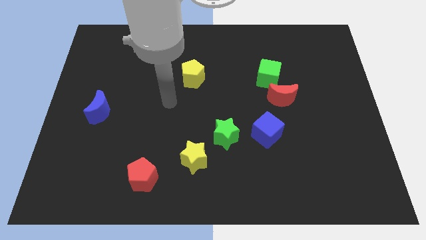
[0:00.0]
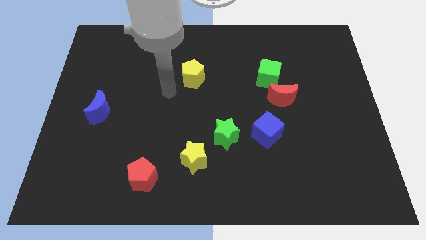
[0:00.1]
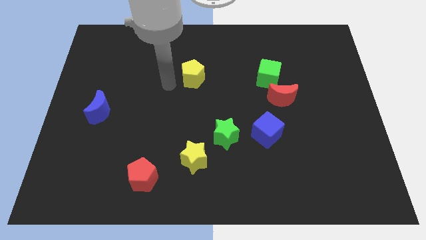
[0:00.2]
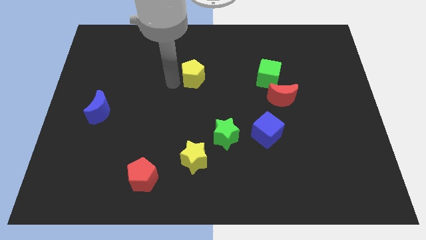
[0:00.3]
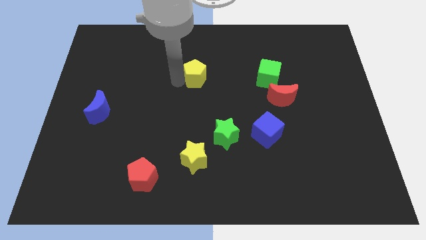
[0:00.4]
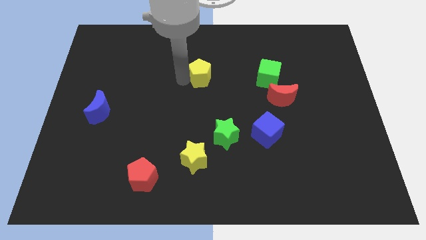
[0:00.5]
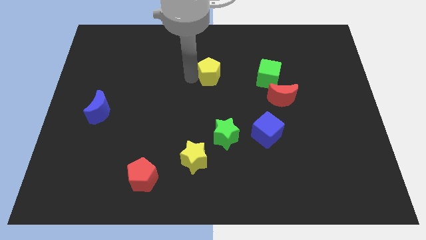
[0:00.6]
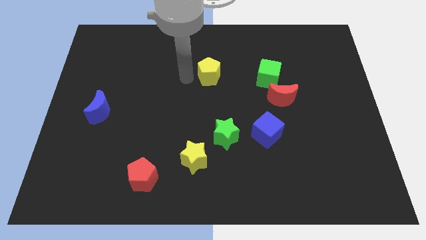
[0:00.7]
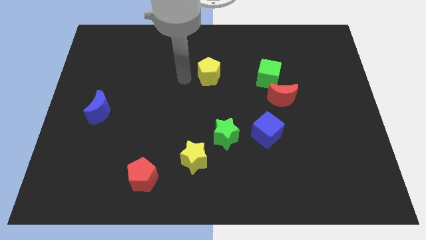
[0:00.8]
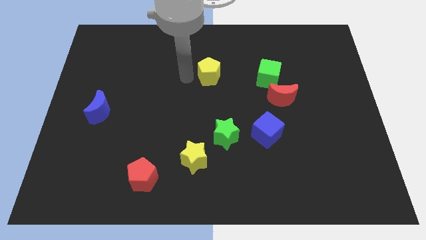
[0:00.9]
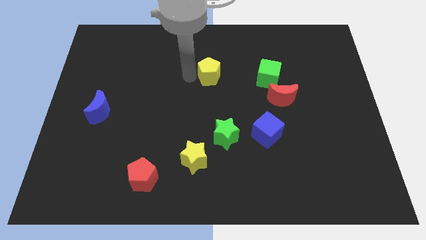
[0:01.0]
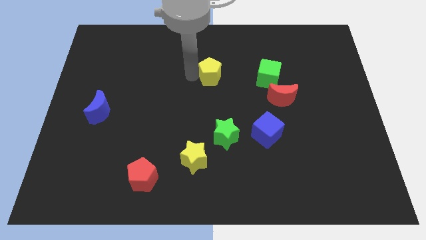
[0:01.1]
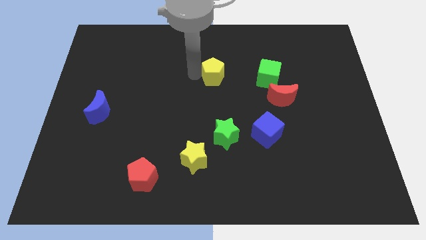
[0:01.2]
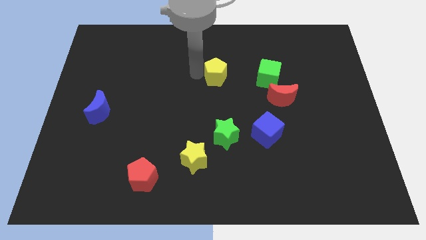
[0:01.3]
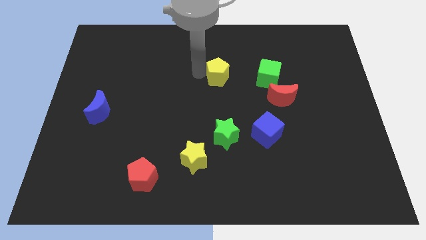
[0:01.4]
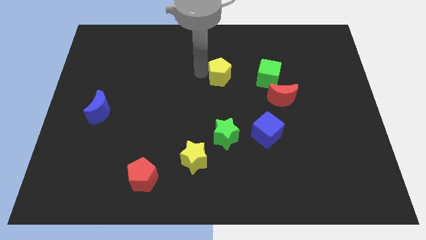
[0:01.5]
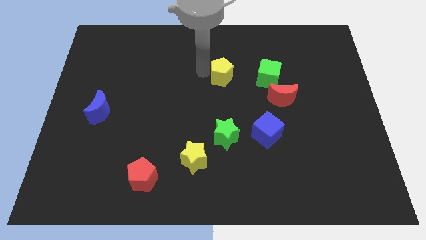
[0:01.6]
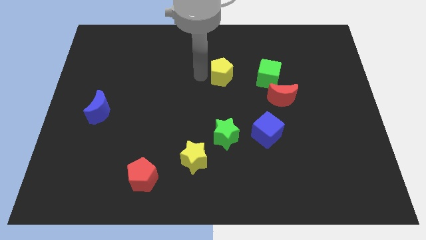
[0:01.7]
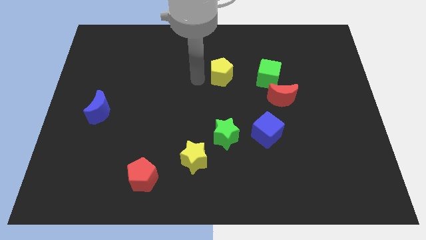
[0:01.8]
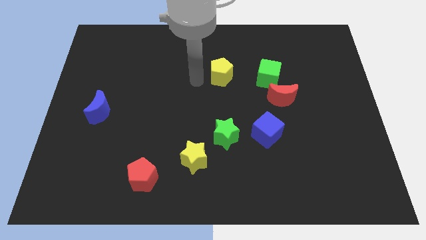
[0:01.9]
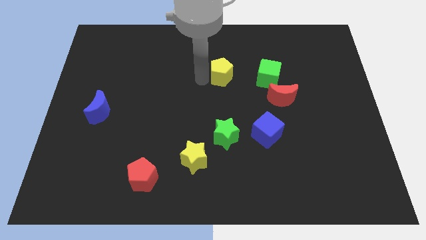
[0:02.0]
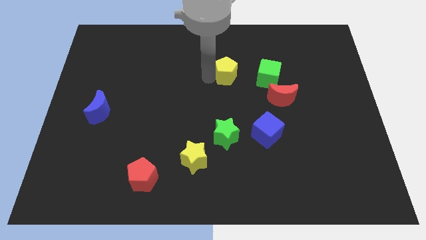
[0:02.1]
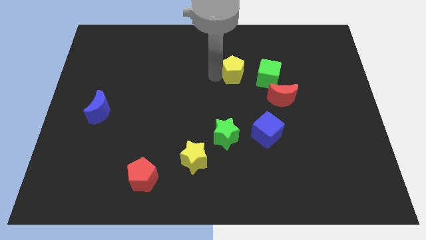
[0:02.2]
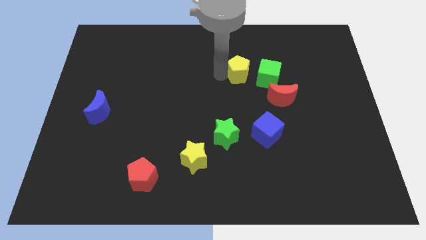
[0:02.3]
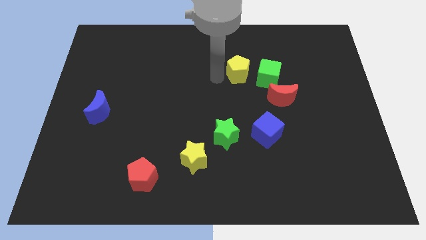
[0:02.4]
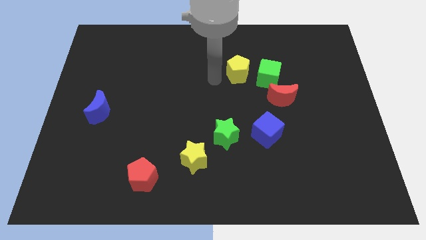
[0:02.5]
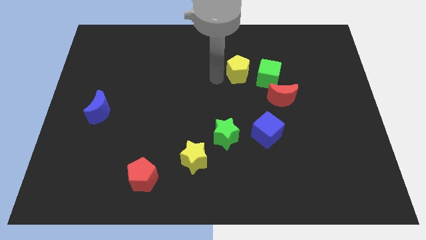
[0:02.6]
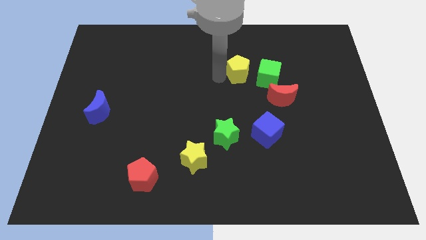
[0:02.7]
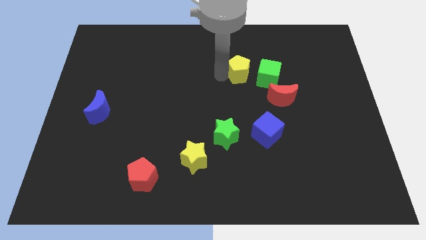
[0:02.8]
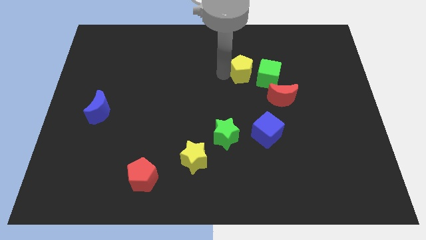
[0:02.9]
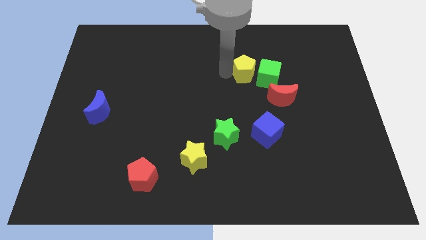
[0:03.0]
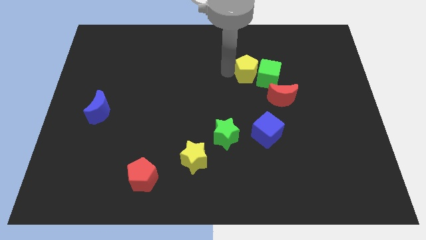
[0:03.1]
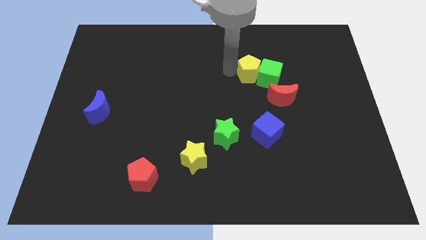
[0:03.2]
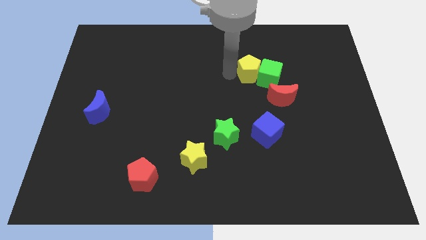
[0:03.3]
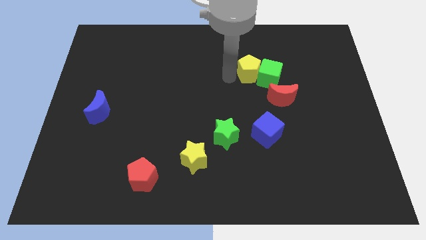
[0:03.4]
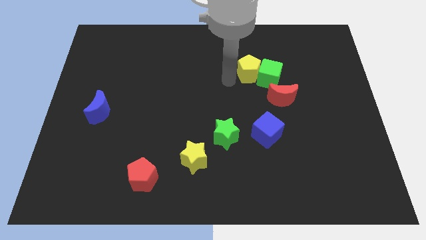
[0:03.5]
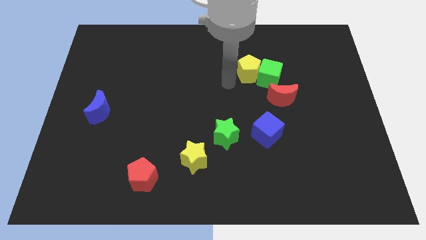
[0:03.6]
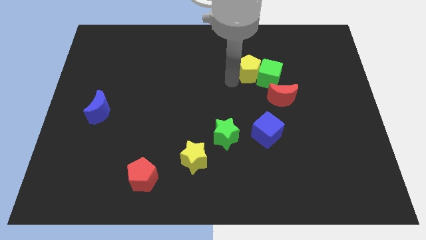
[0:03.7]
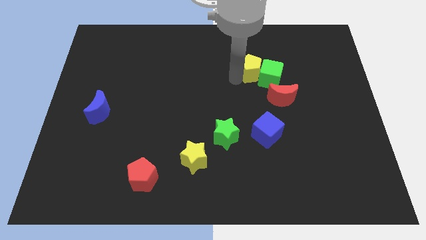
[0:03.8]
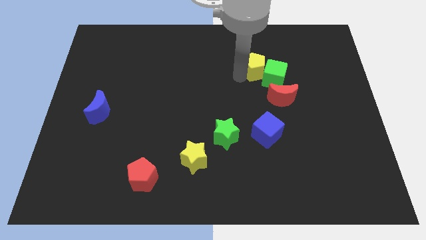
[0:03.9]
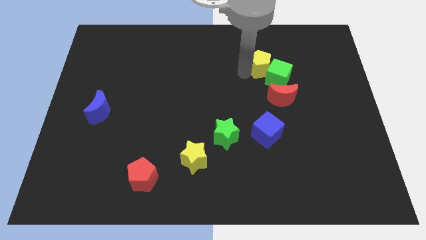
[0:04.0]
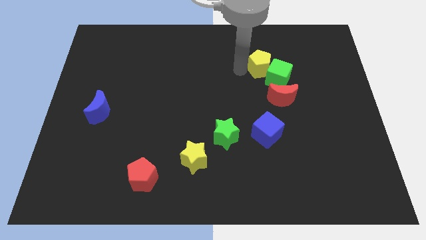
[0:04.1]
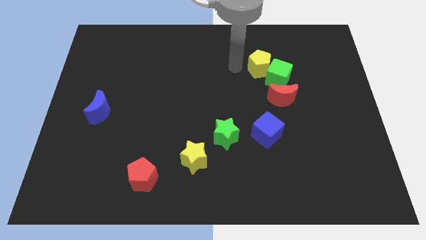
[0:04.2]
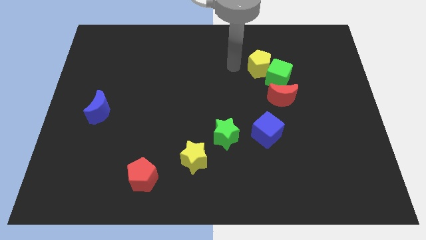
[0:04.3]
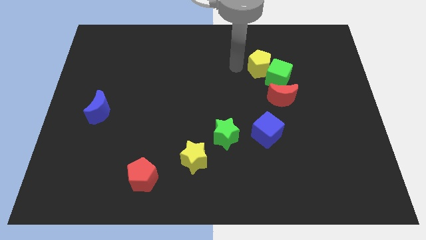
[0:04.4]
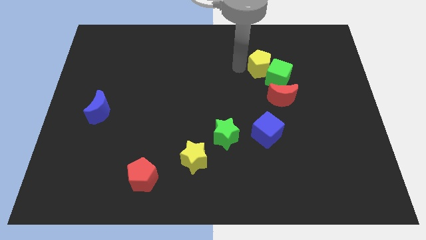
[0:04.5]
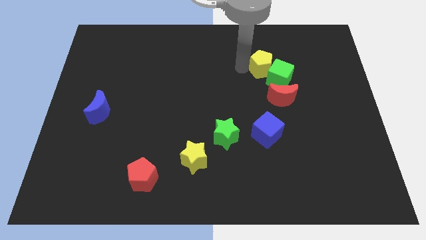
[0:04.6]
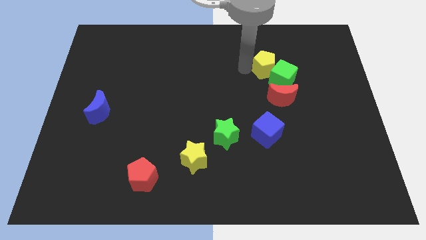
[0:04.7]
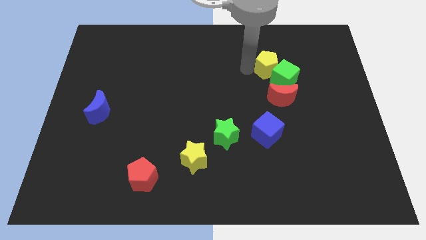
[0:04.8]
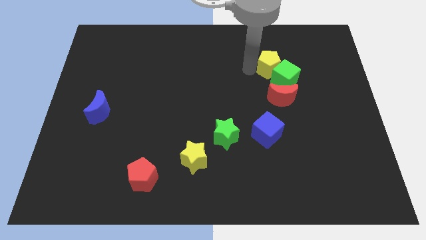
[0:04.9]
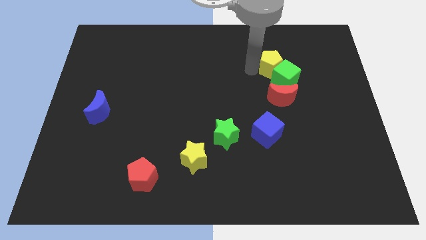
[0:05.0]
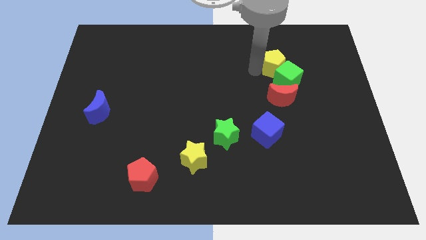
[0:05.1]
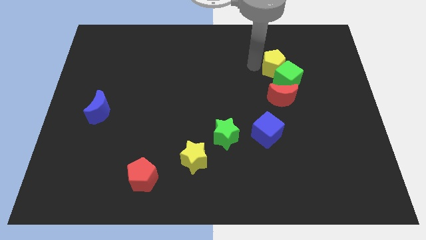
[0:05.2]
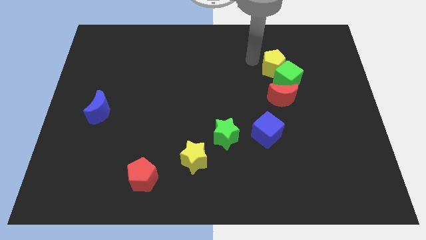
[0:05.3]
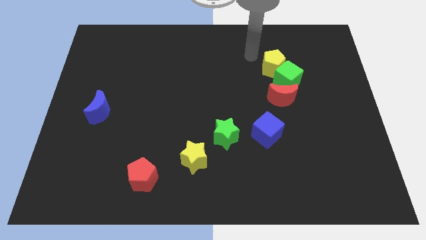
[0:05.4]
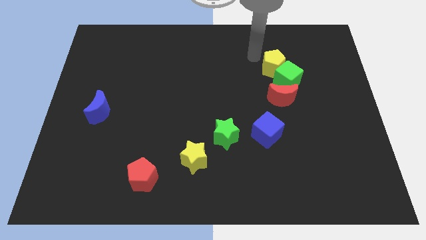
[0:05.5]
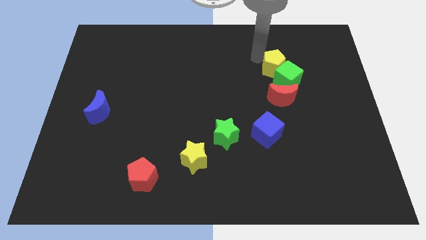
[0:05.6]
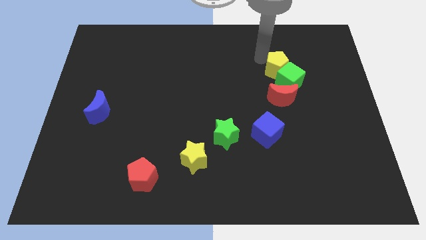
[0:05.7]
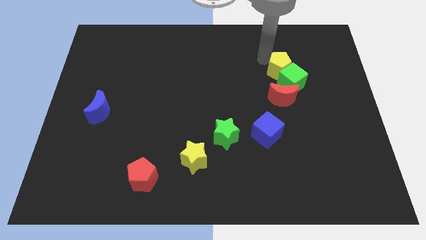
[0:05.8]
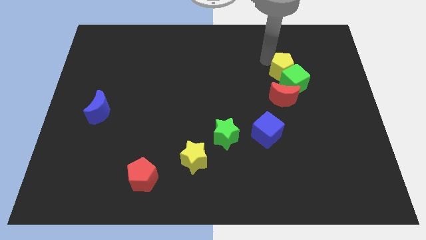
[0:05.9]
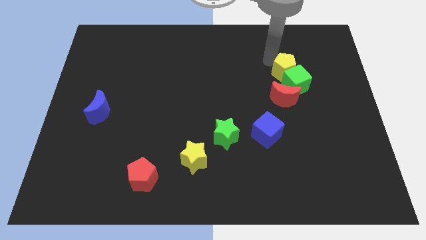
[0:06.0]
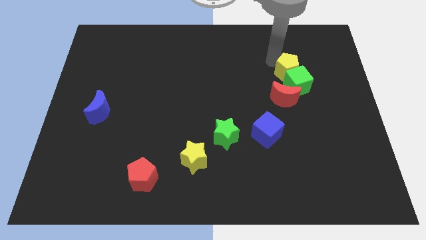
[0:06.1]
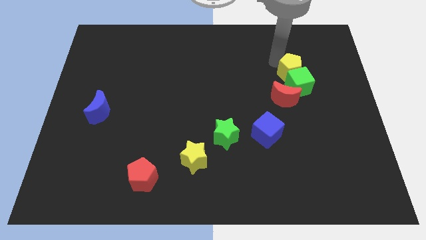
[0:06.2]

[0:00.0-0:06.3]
push the yellow pentagon to the top right of the red moon
